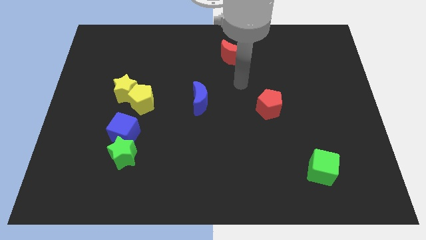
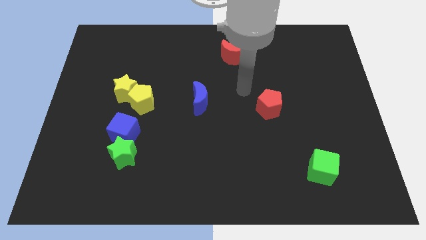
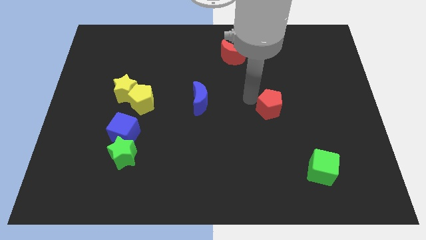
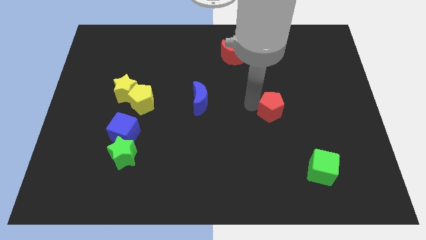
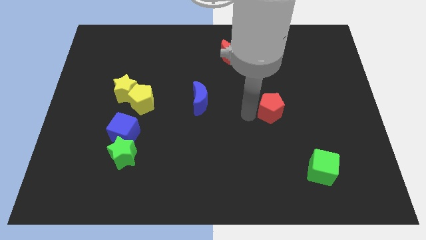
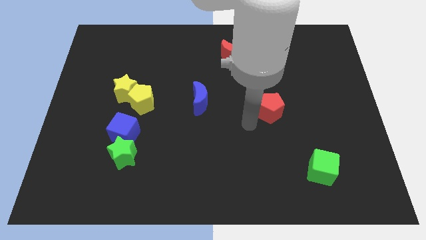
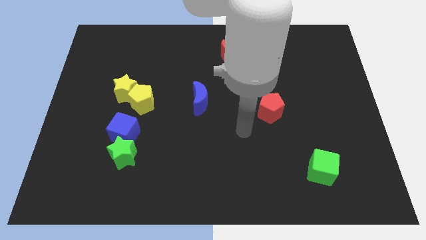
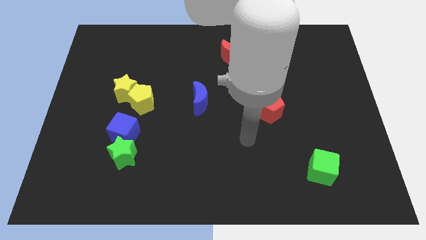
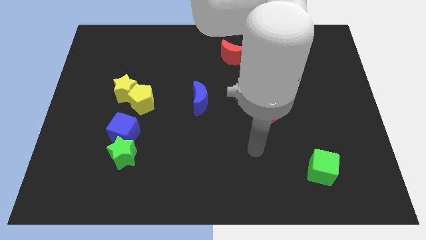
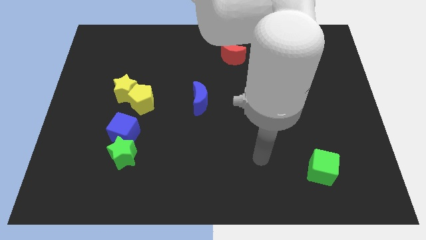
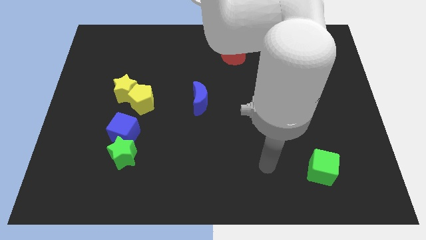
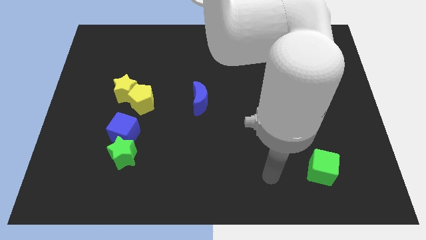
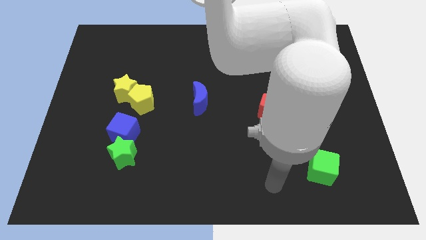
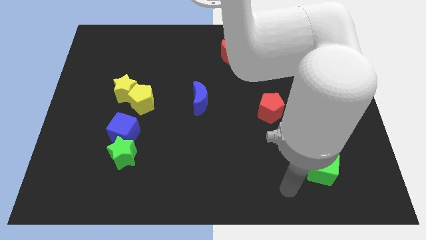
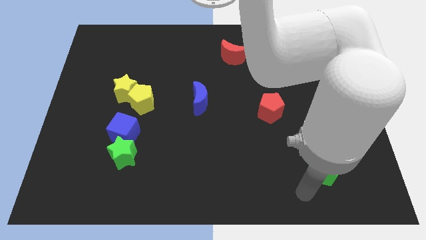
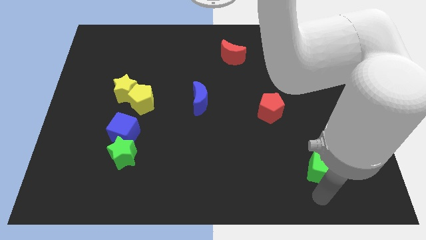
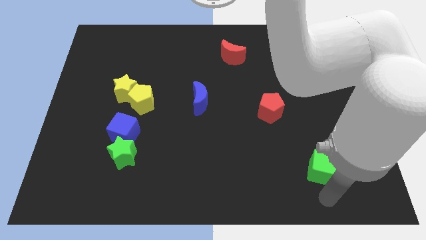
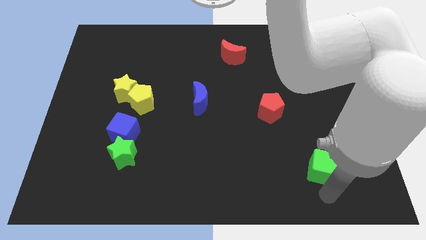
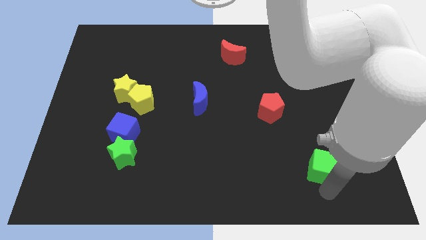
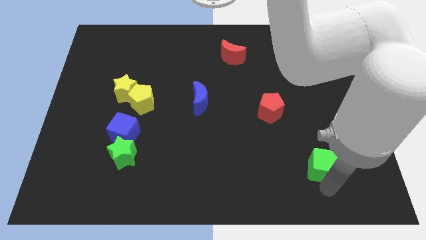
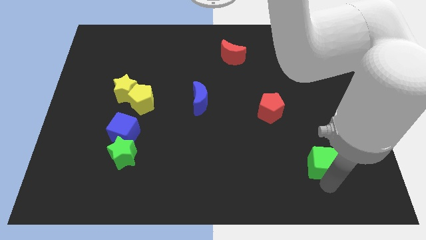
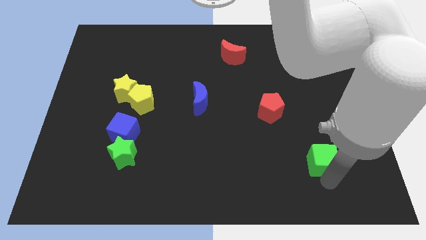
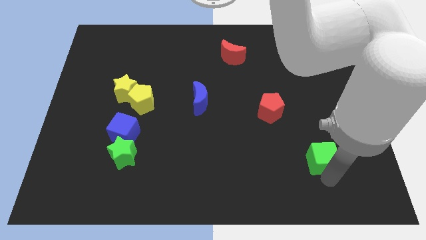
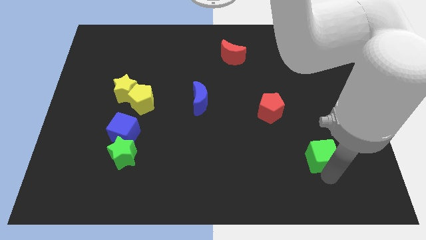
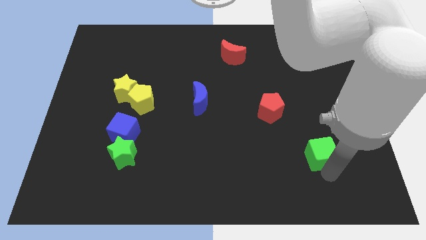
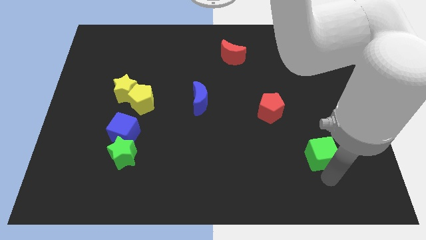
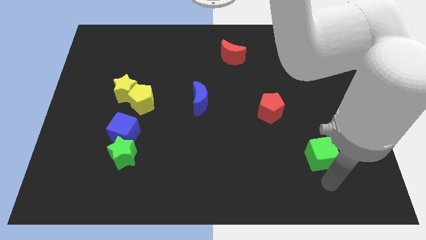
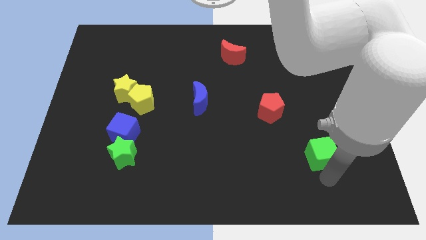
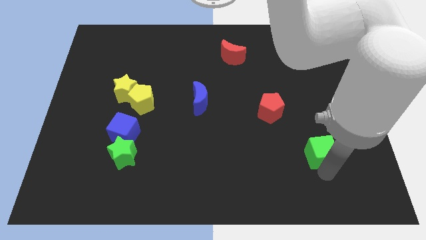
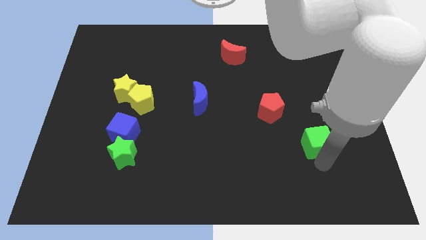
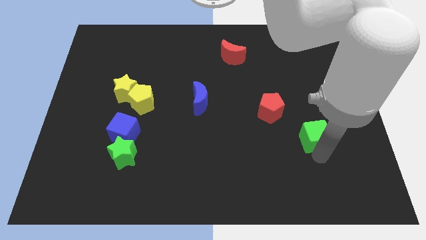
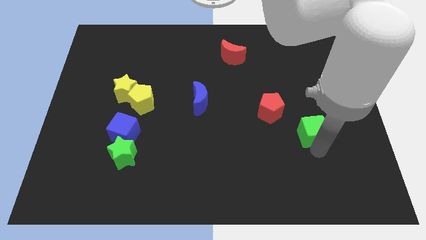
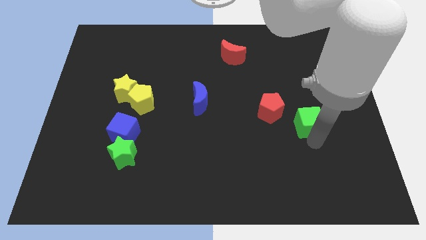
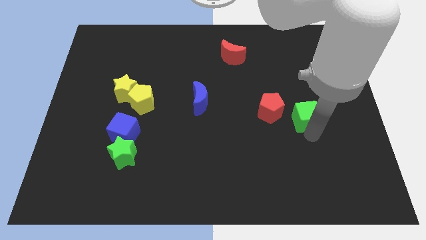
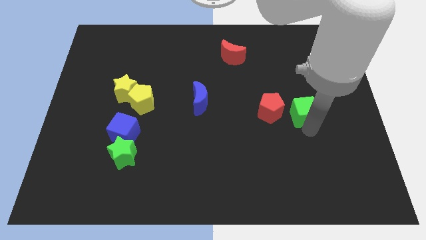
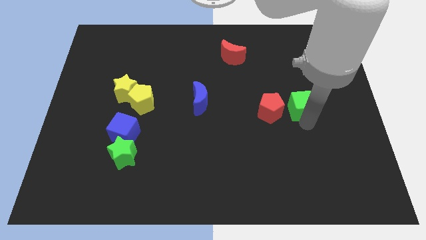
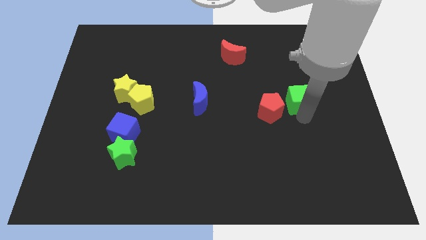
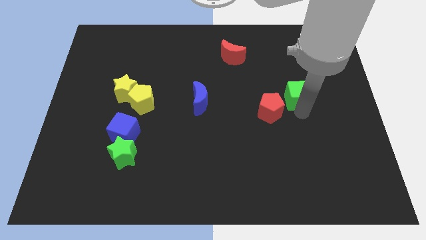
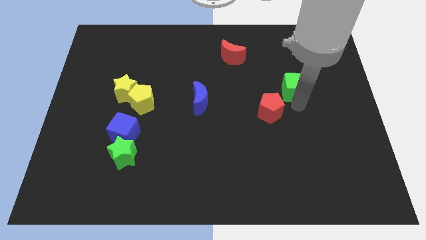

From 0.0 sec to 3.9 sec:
move the green cube upwards

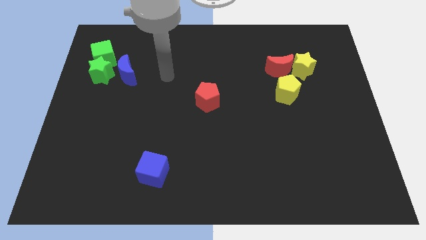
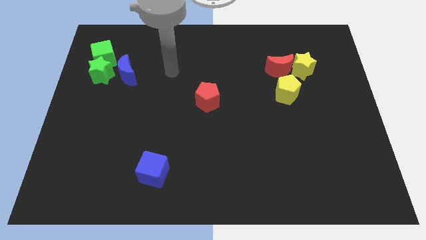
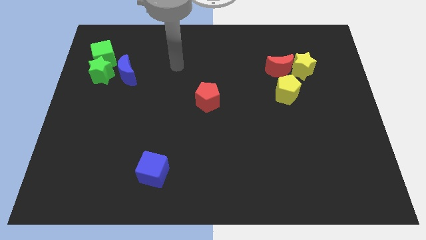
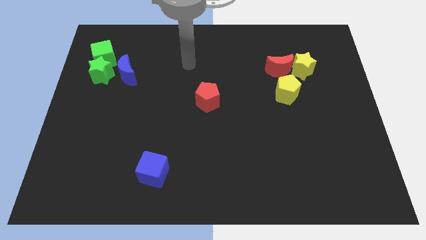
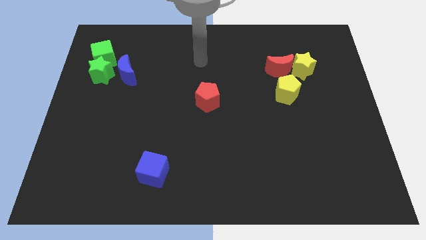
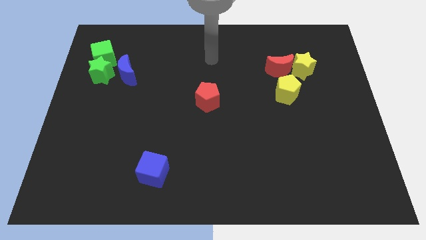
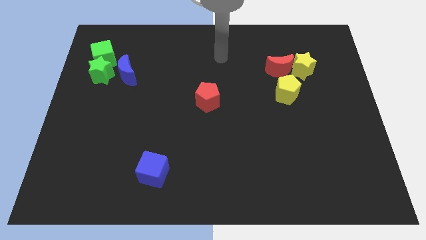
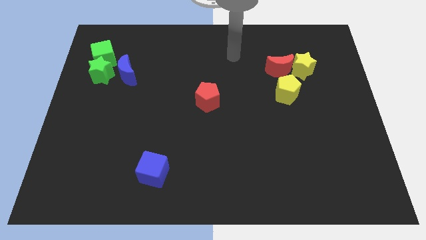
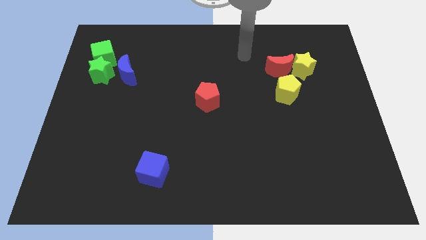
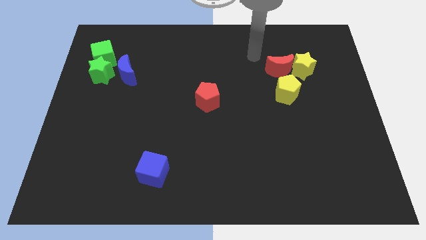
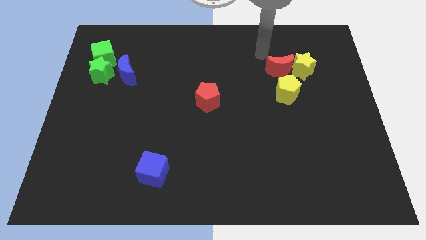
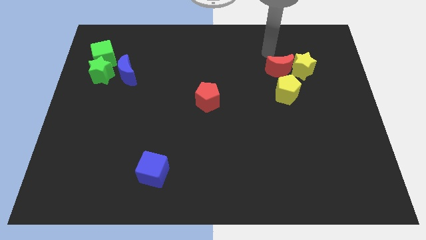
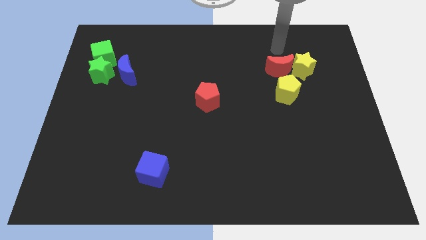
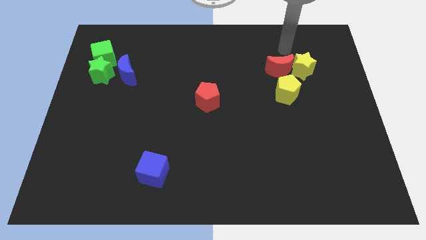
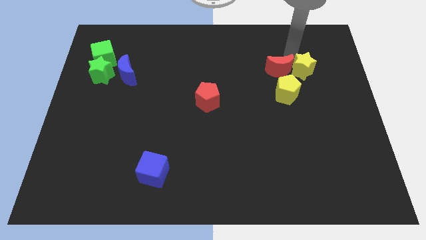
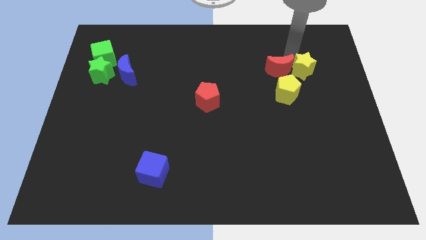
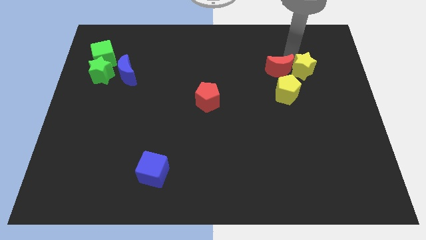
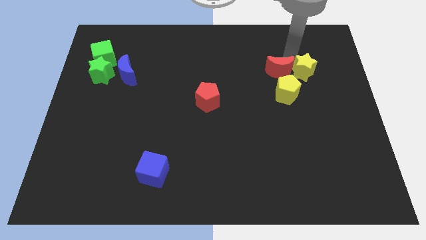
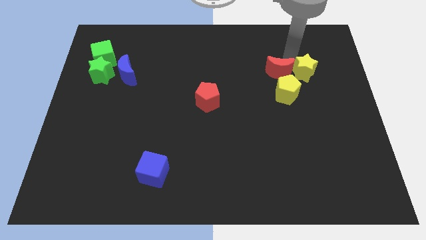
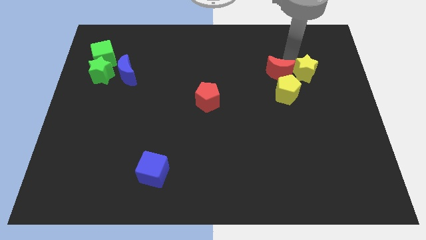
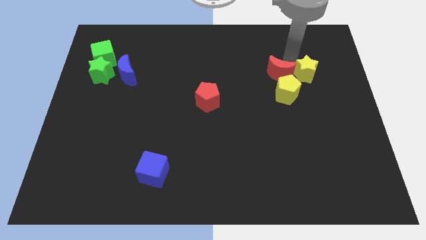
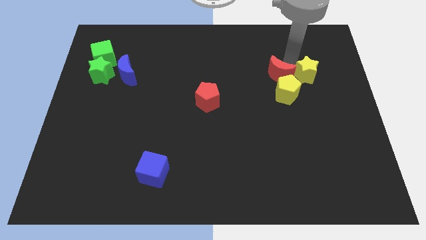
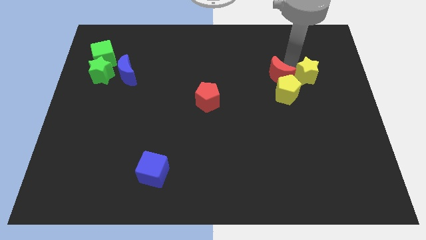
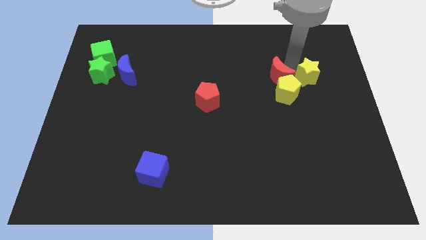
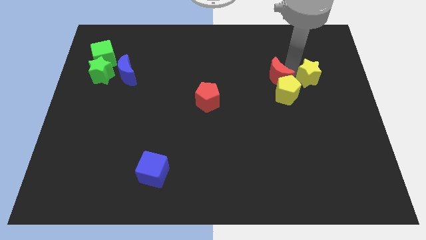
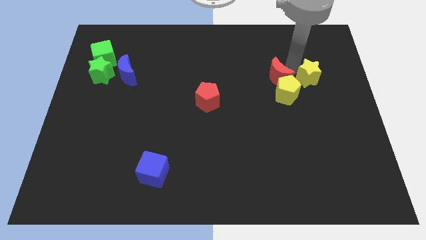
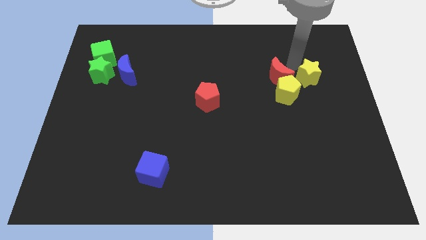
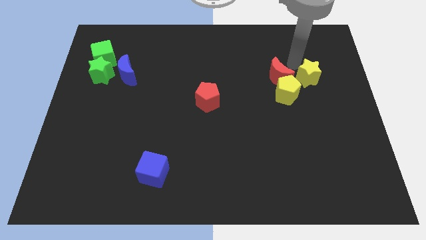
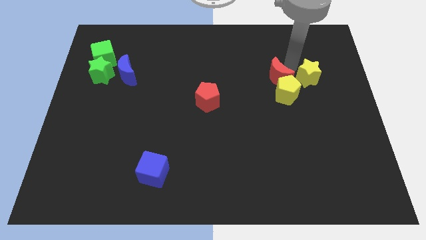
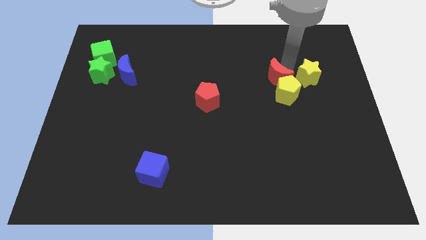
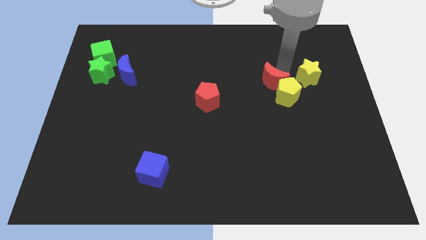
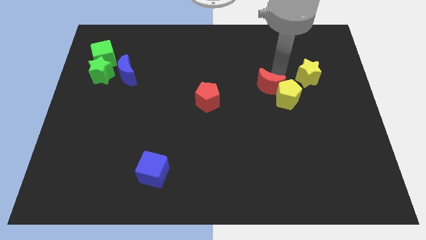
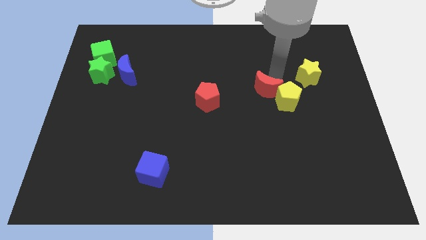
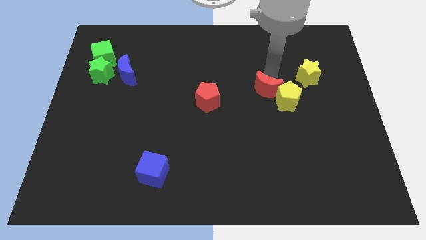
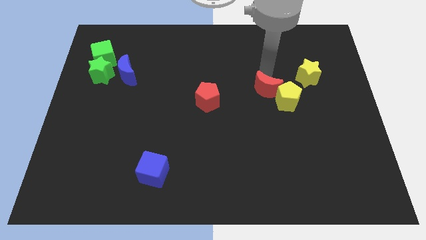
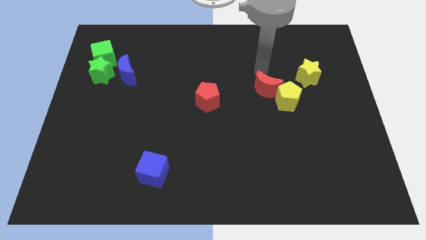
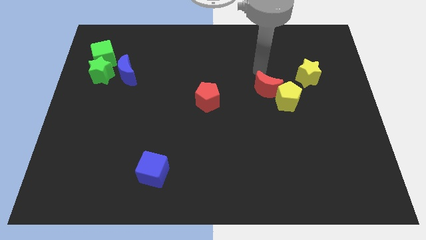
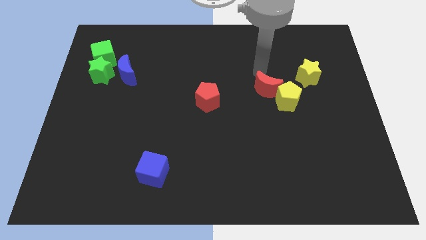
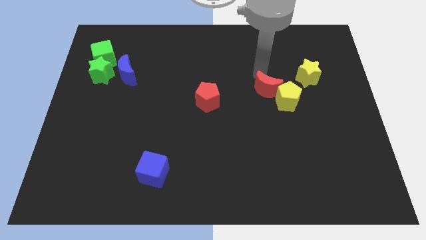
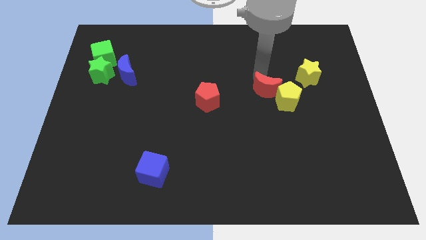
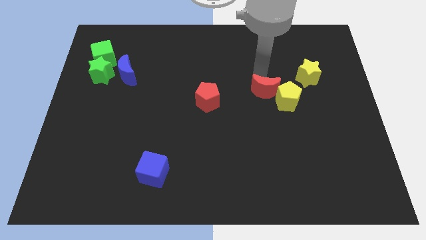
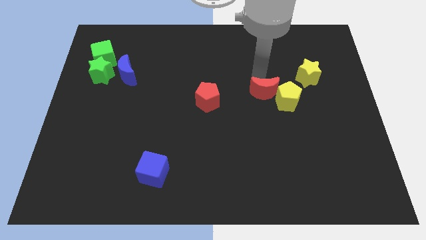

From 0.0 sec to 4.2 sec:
slide the red moon downwards somewhat
